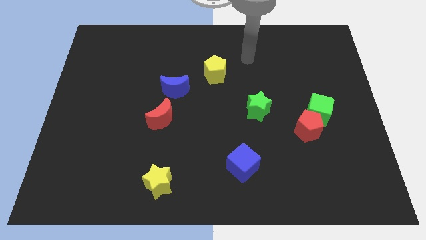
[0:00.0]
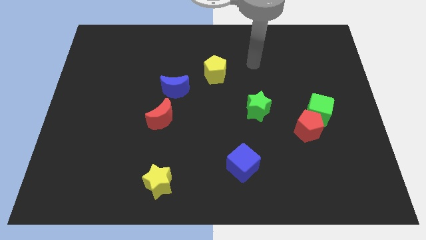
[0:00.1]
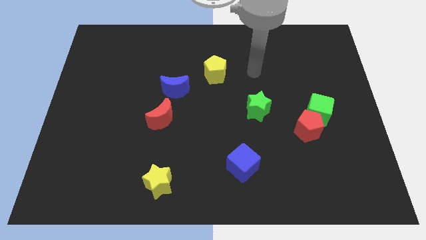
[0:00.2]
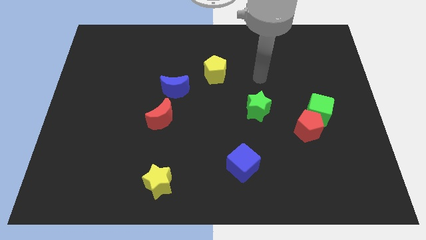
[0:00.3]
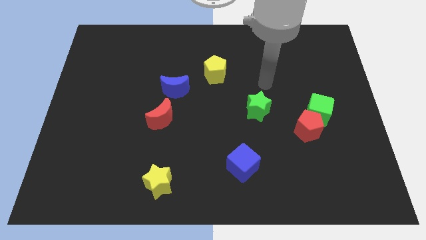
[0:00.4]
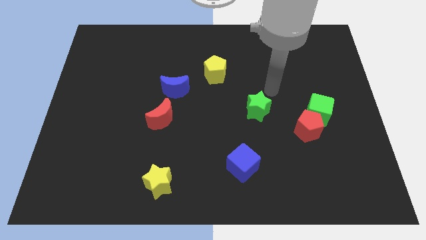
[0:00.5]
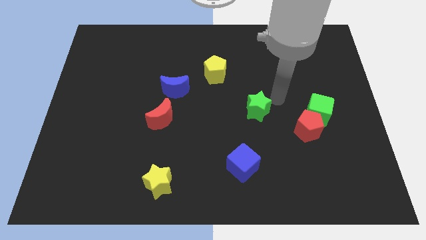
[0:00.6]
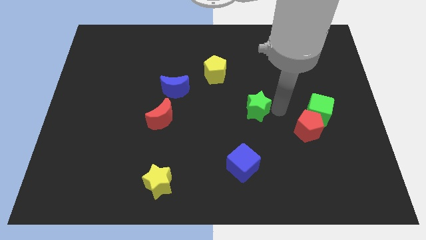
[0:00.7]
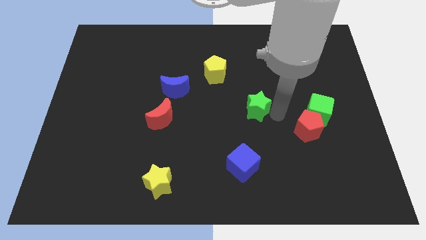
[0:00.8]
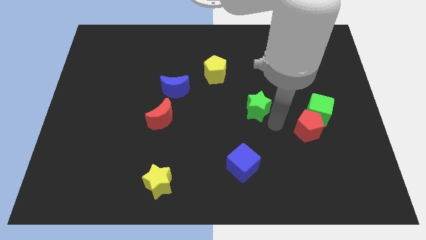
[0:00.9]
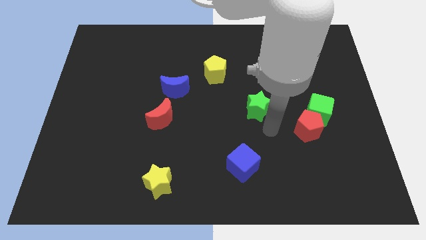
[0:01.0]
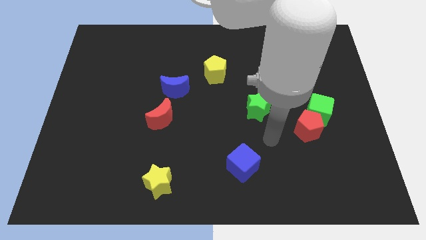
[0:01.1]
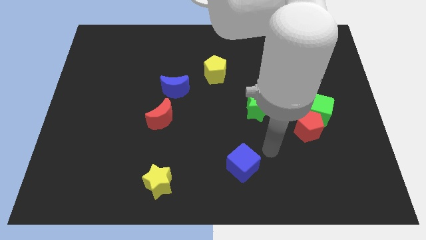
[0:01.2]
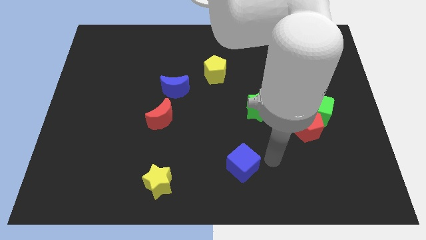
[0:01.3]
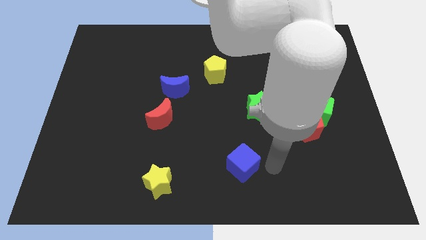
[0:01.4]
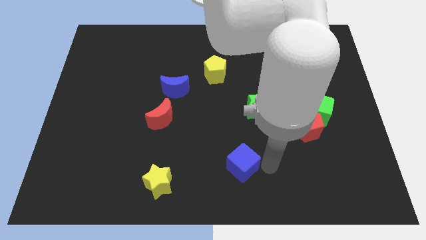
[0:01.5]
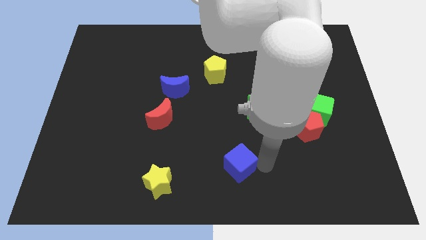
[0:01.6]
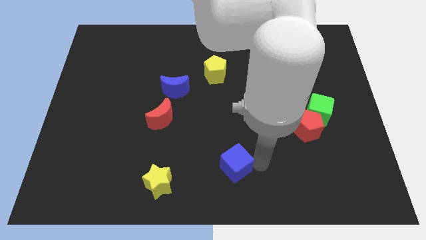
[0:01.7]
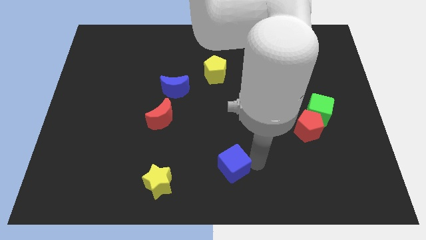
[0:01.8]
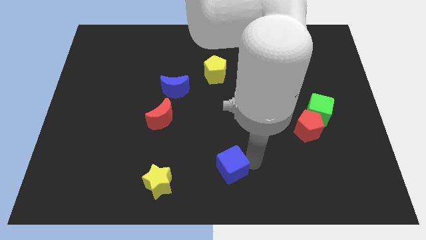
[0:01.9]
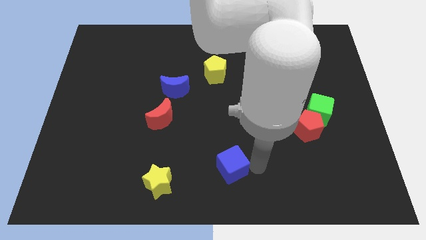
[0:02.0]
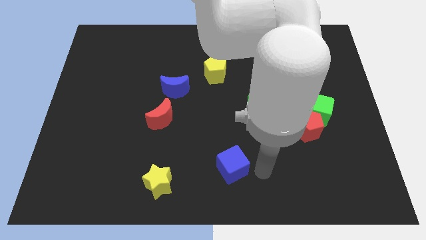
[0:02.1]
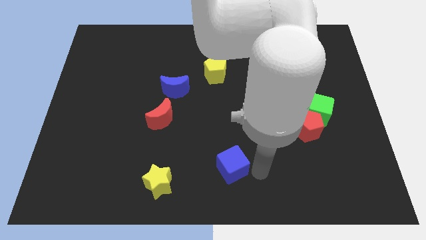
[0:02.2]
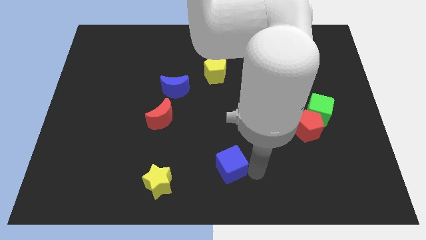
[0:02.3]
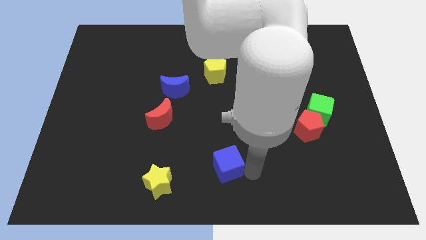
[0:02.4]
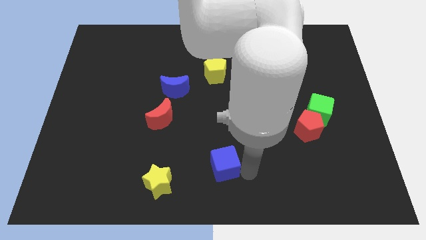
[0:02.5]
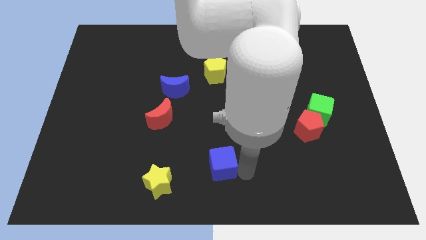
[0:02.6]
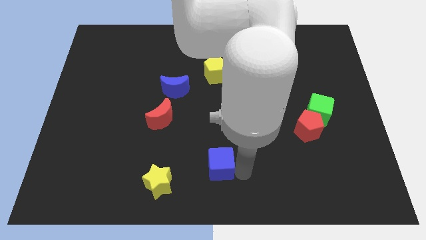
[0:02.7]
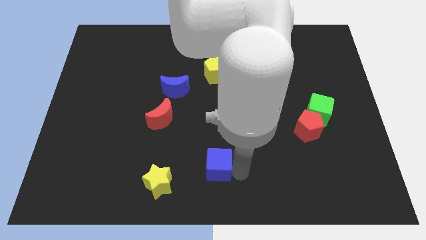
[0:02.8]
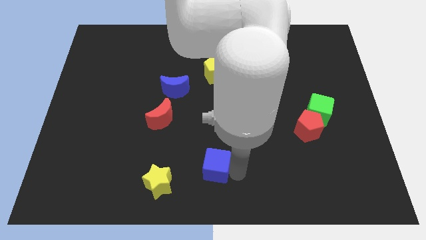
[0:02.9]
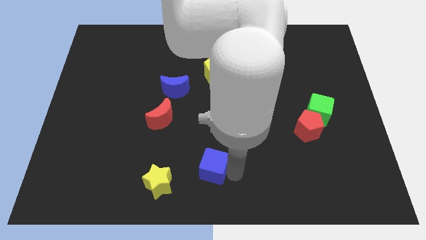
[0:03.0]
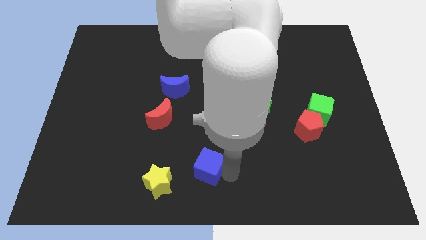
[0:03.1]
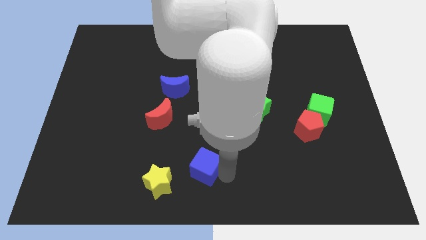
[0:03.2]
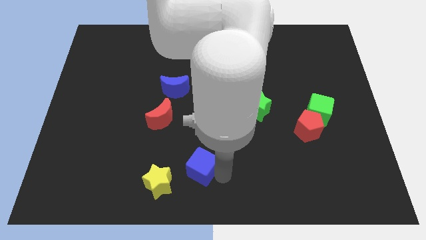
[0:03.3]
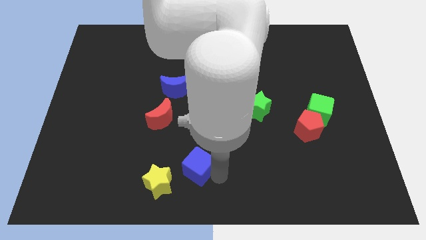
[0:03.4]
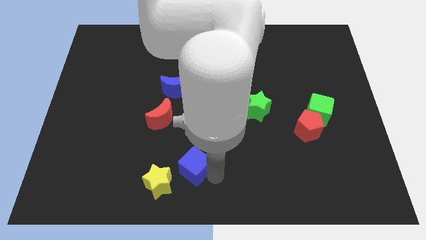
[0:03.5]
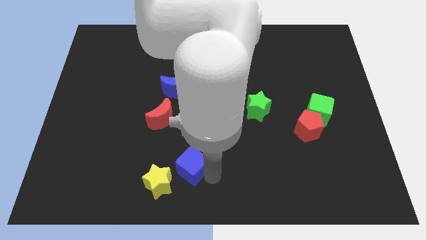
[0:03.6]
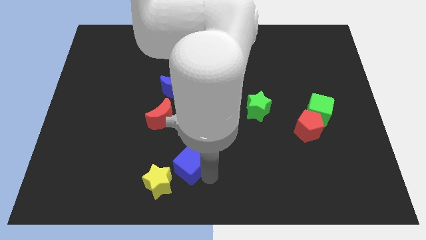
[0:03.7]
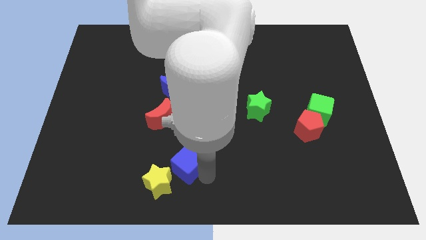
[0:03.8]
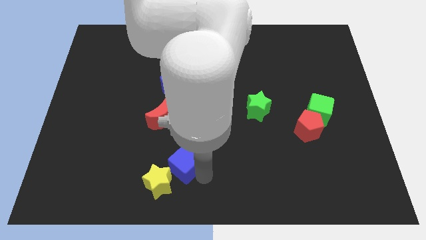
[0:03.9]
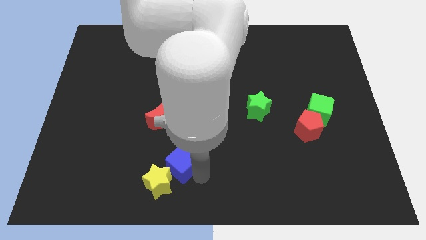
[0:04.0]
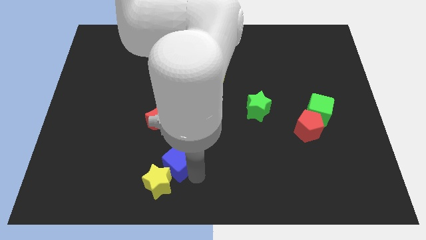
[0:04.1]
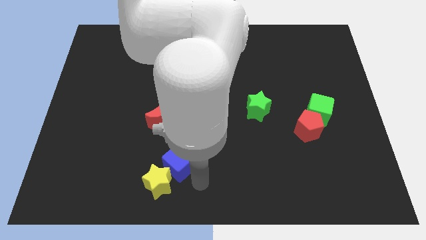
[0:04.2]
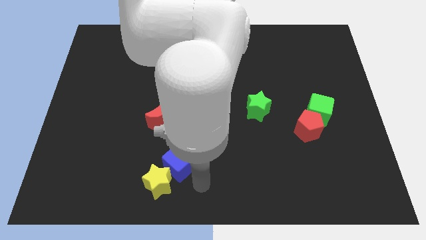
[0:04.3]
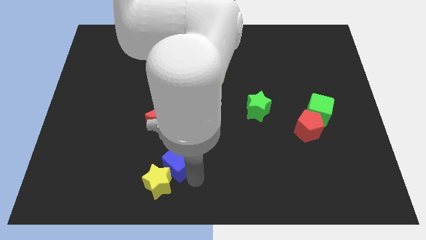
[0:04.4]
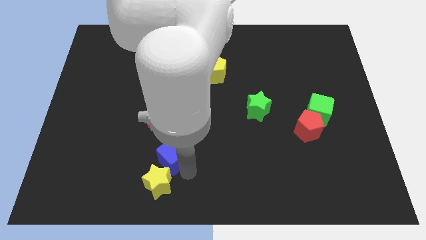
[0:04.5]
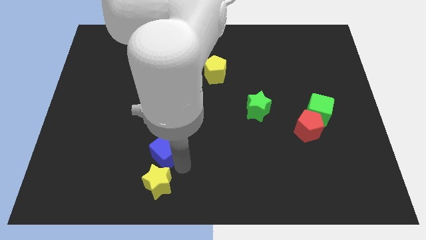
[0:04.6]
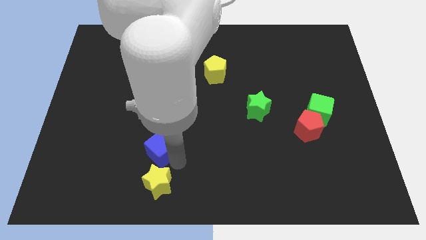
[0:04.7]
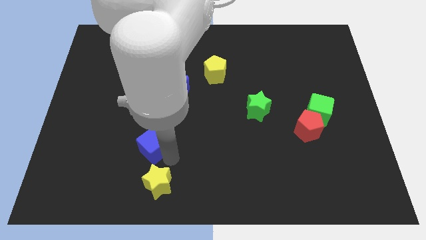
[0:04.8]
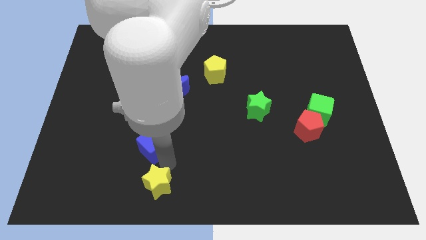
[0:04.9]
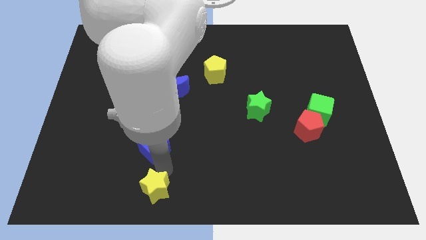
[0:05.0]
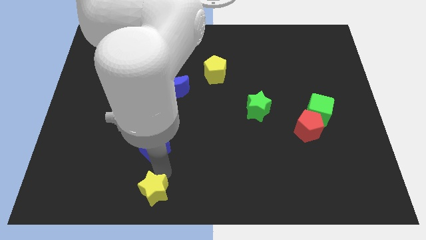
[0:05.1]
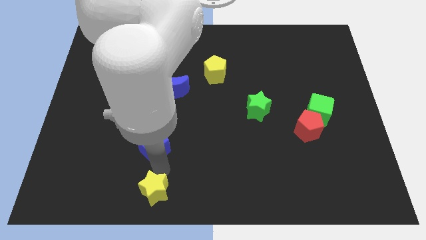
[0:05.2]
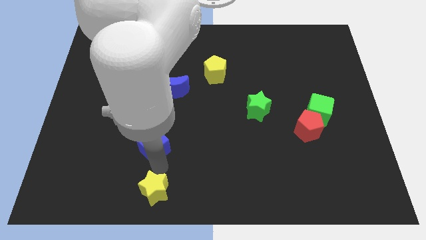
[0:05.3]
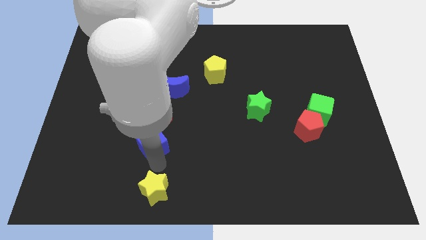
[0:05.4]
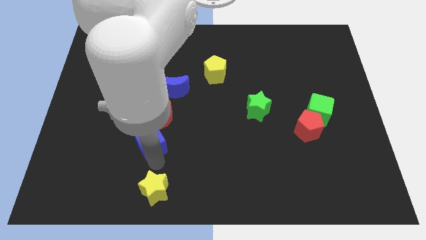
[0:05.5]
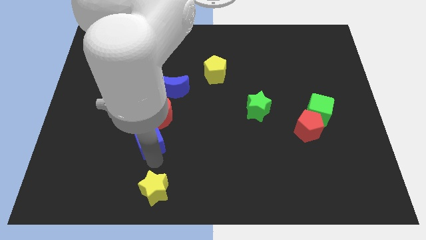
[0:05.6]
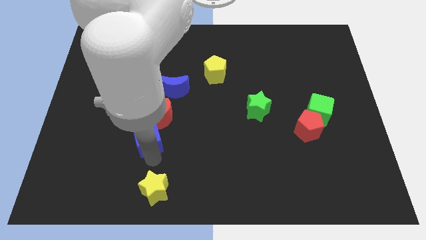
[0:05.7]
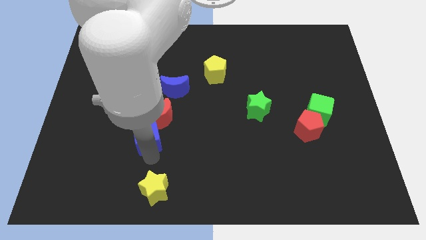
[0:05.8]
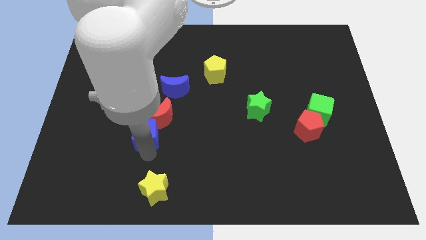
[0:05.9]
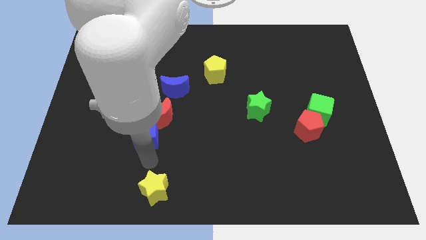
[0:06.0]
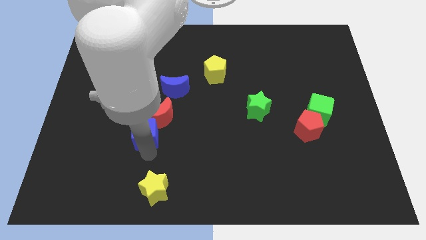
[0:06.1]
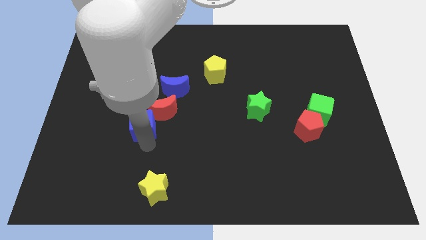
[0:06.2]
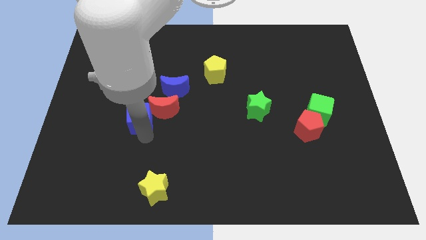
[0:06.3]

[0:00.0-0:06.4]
slide the blue cube up and then left

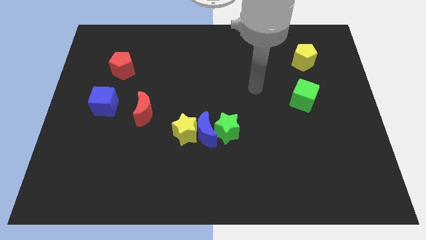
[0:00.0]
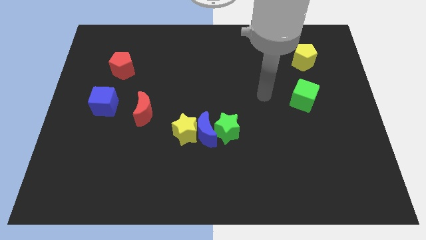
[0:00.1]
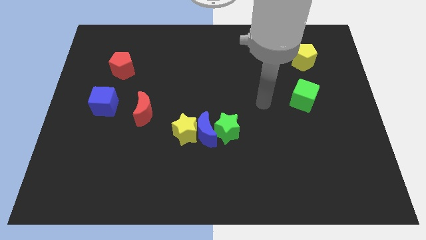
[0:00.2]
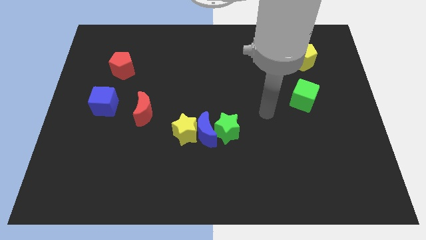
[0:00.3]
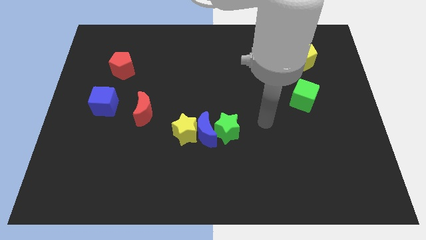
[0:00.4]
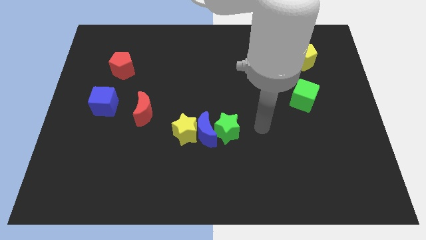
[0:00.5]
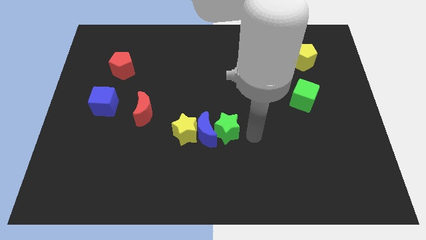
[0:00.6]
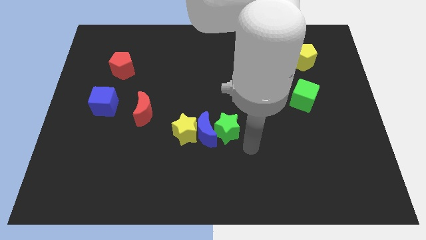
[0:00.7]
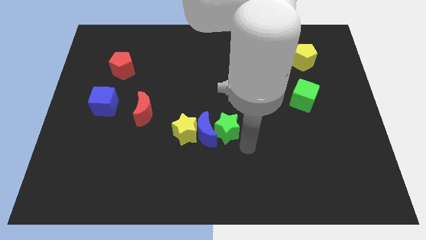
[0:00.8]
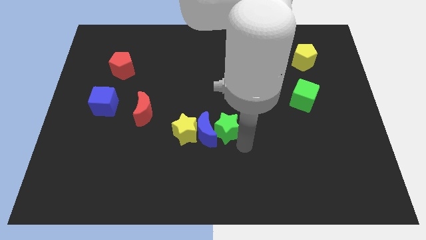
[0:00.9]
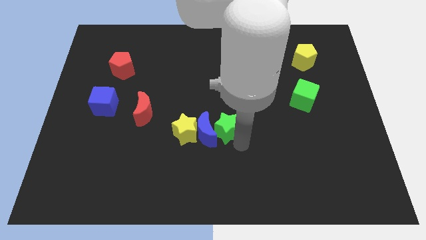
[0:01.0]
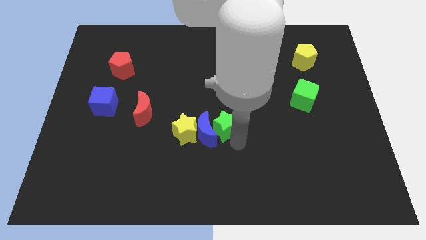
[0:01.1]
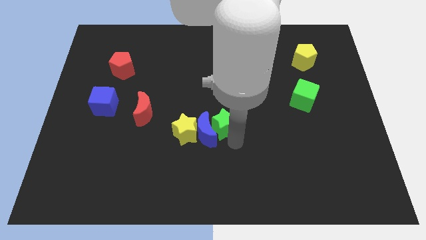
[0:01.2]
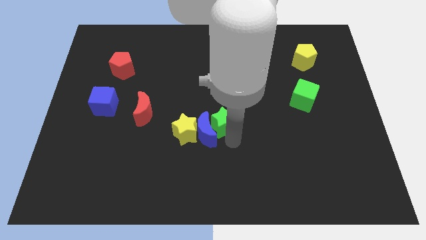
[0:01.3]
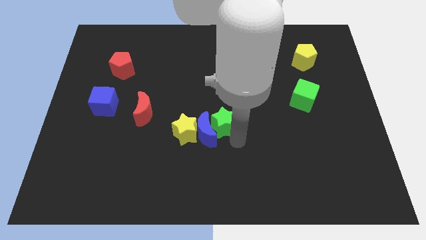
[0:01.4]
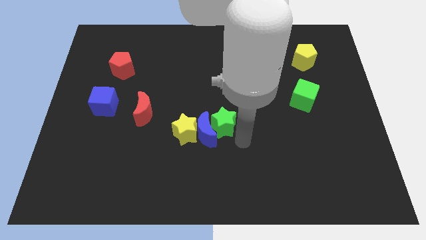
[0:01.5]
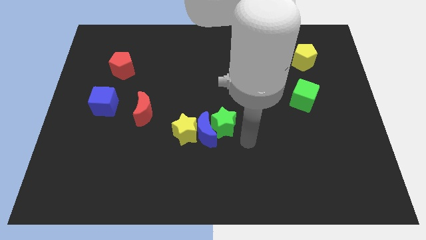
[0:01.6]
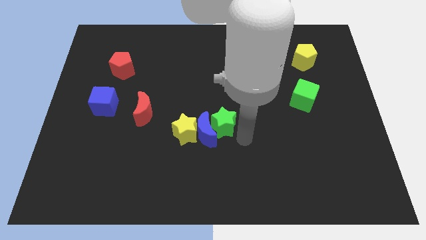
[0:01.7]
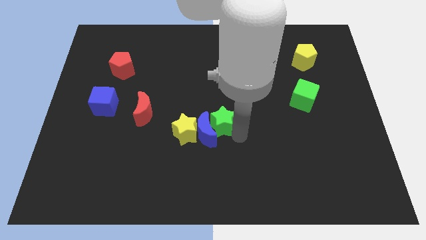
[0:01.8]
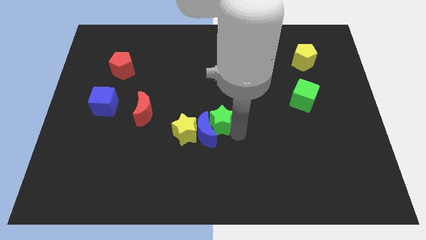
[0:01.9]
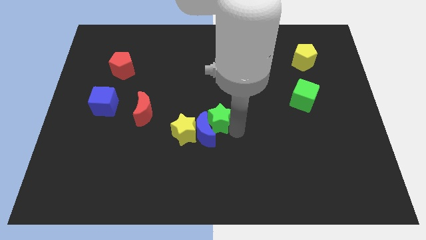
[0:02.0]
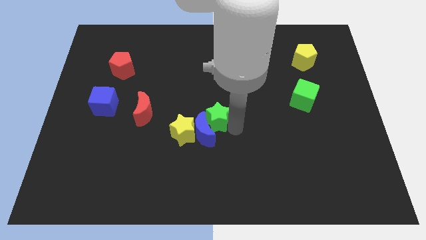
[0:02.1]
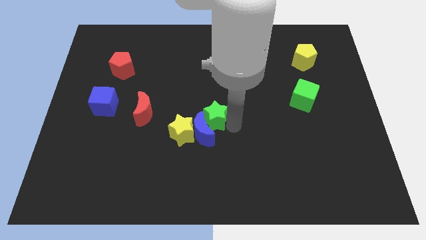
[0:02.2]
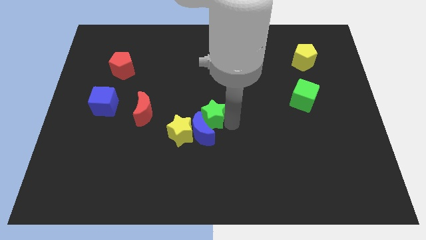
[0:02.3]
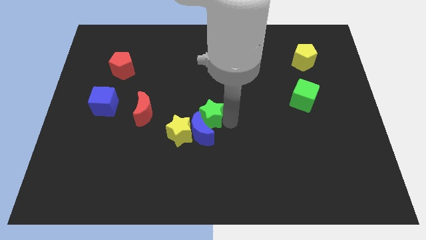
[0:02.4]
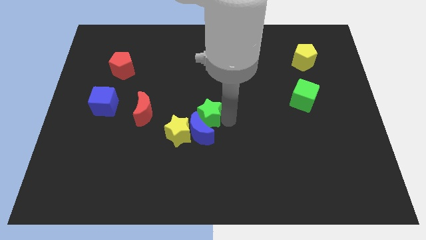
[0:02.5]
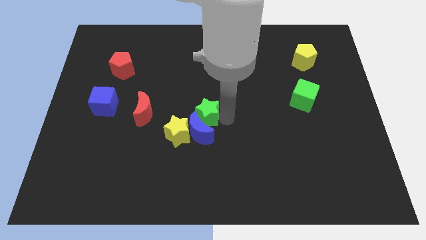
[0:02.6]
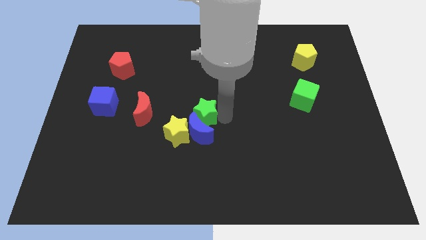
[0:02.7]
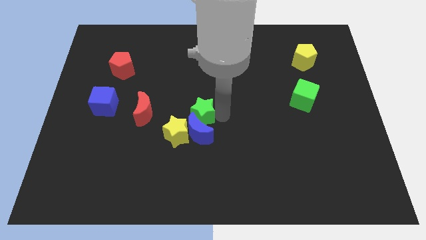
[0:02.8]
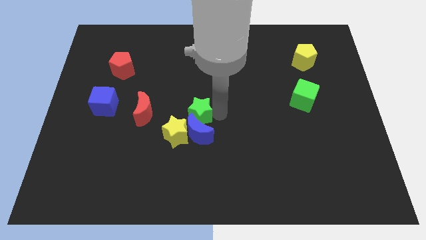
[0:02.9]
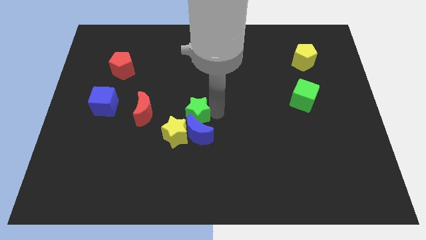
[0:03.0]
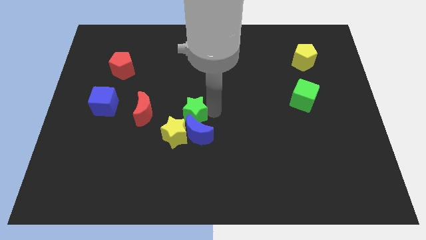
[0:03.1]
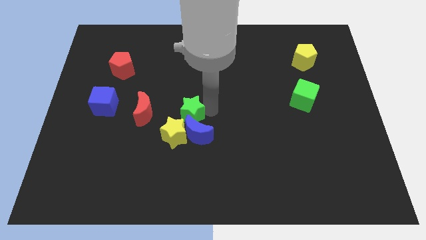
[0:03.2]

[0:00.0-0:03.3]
slightly move the green star left
